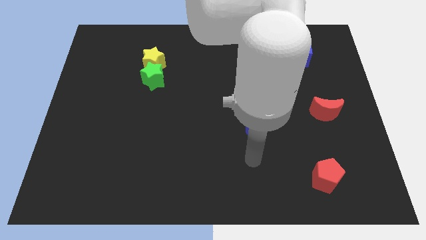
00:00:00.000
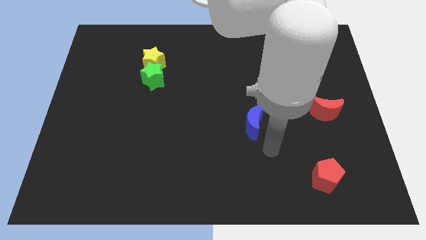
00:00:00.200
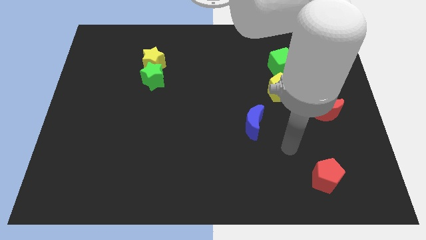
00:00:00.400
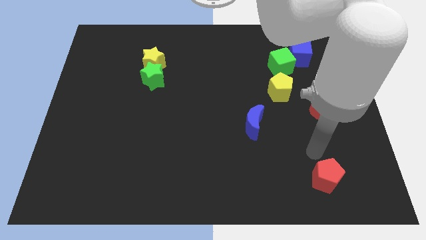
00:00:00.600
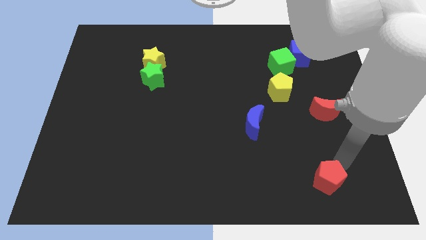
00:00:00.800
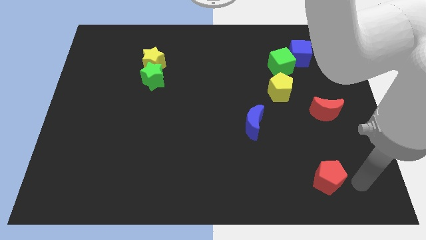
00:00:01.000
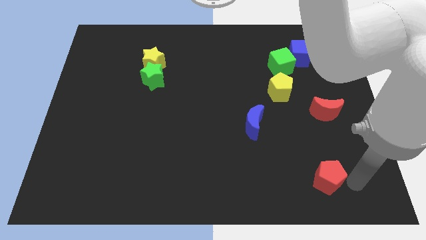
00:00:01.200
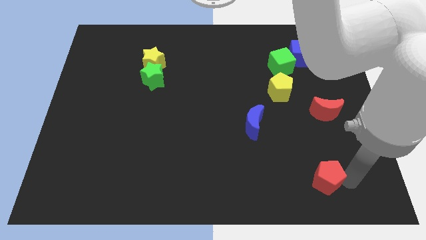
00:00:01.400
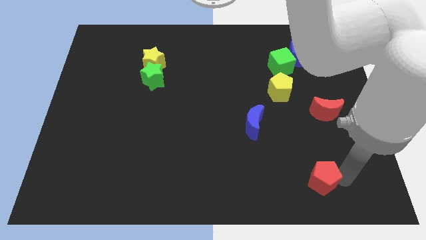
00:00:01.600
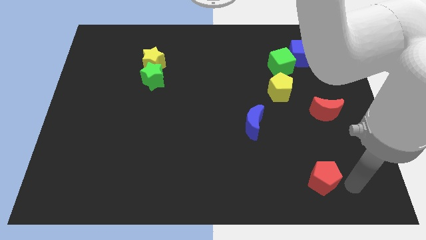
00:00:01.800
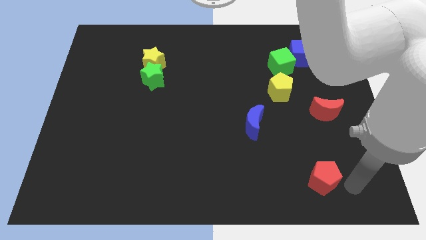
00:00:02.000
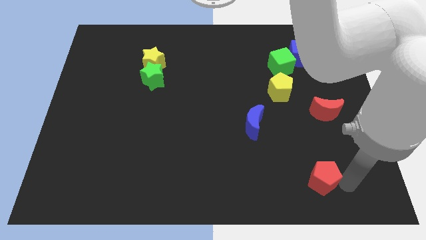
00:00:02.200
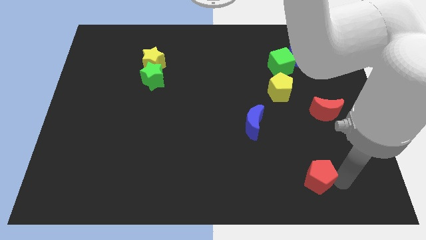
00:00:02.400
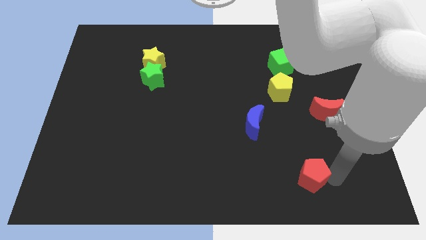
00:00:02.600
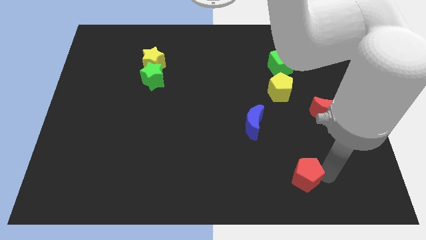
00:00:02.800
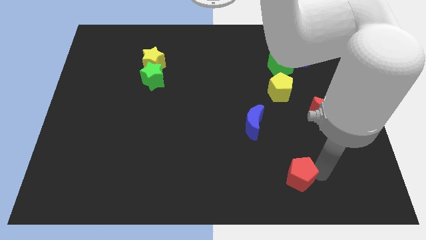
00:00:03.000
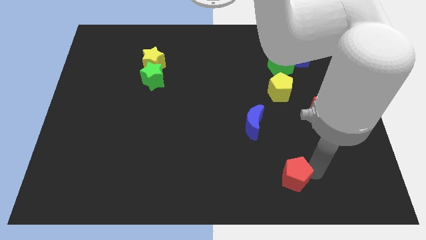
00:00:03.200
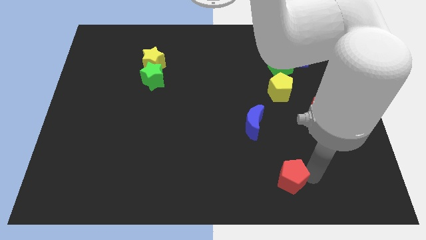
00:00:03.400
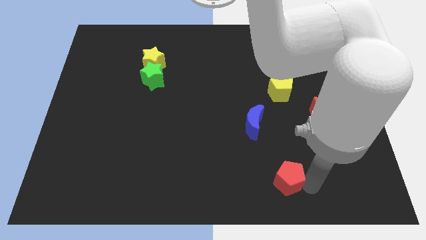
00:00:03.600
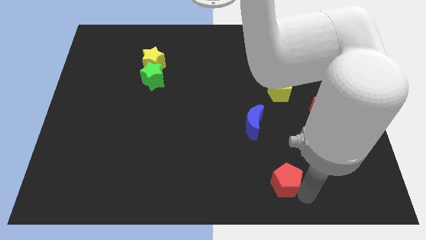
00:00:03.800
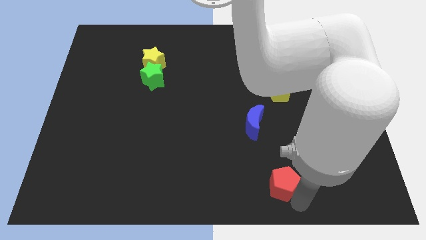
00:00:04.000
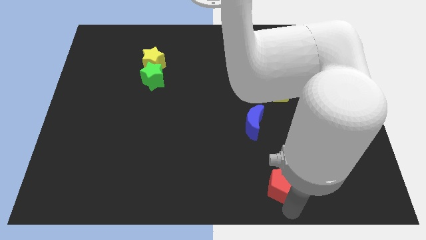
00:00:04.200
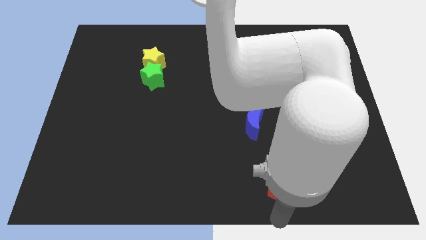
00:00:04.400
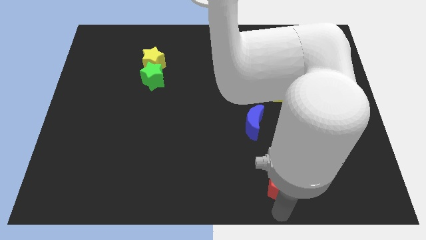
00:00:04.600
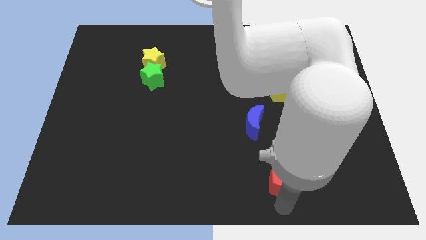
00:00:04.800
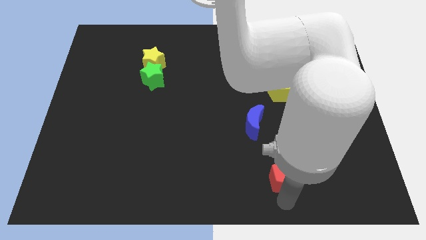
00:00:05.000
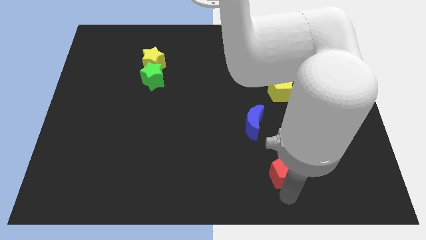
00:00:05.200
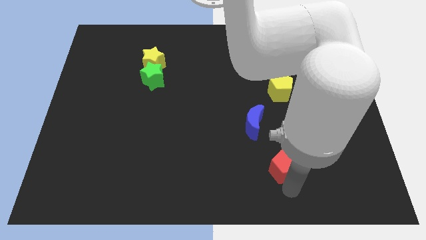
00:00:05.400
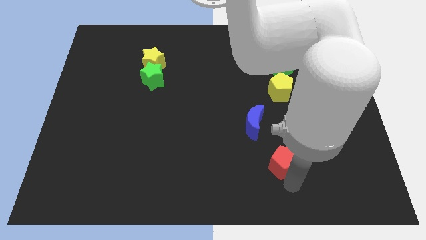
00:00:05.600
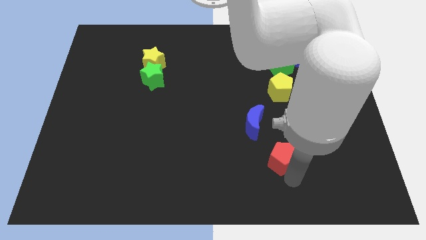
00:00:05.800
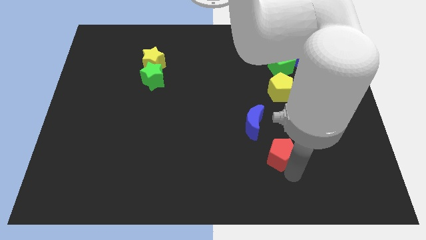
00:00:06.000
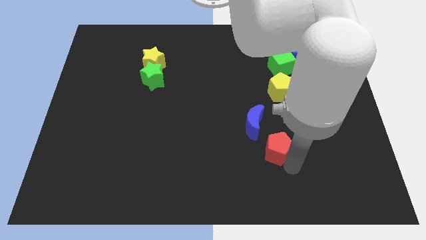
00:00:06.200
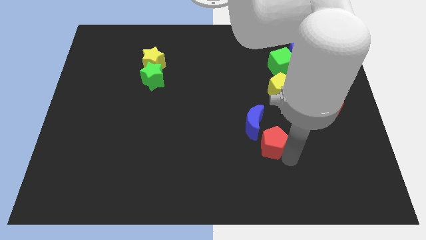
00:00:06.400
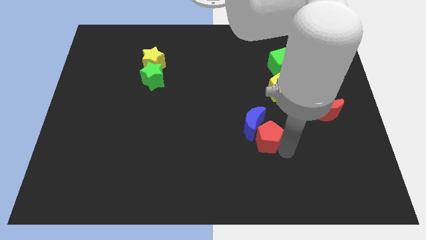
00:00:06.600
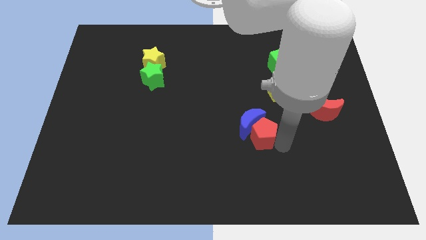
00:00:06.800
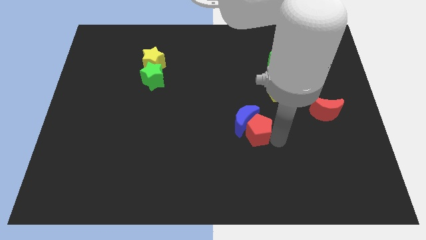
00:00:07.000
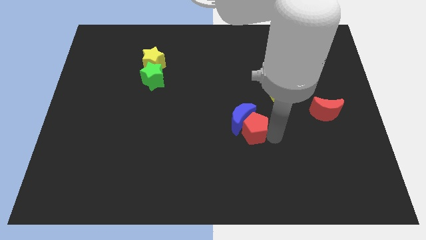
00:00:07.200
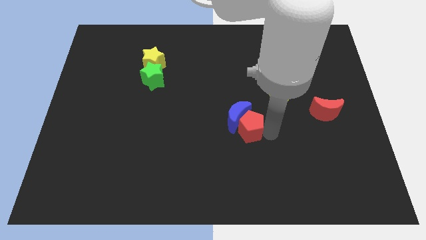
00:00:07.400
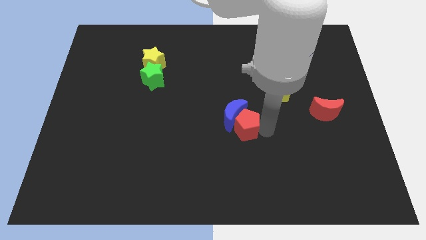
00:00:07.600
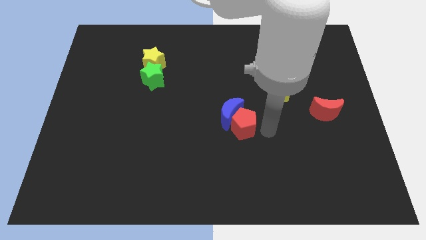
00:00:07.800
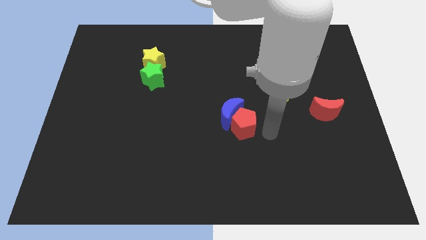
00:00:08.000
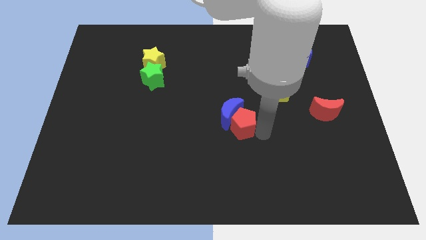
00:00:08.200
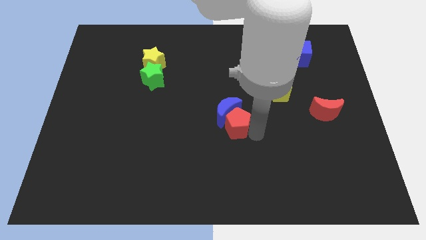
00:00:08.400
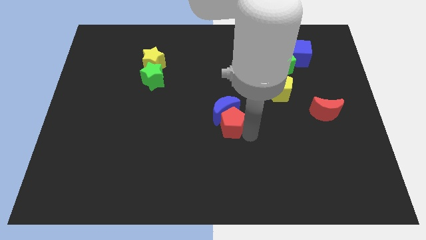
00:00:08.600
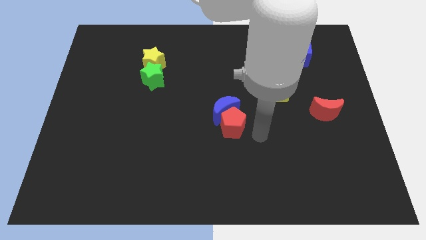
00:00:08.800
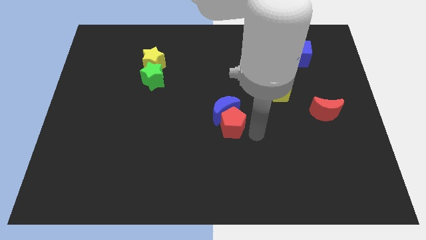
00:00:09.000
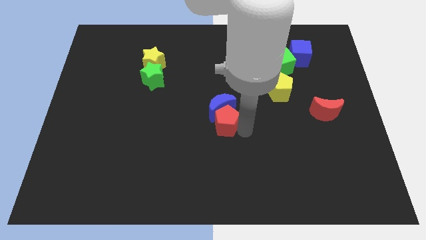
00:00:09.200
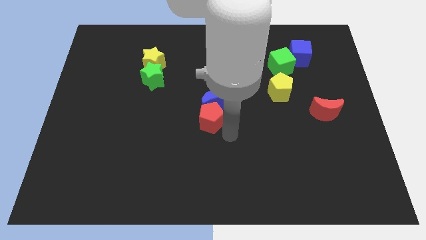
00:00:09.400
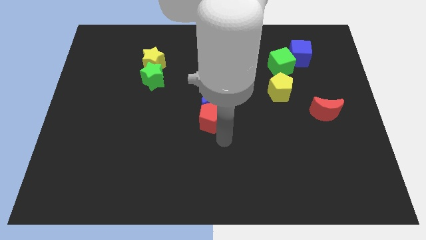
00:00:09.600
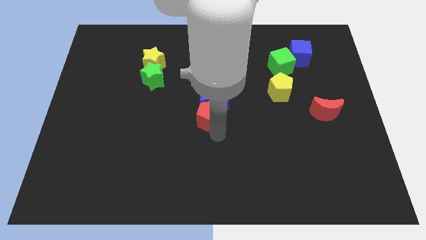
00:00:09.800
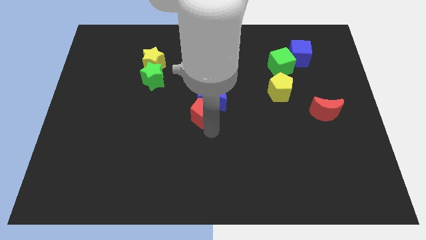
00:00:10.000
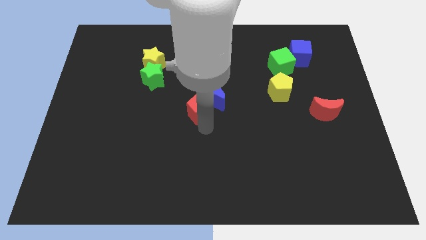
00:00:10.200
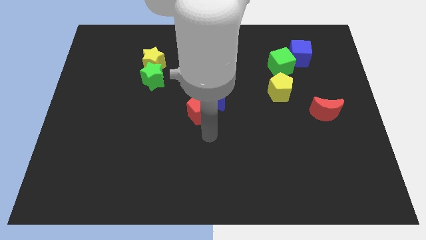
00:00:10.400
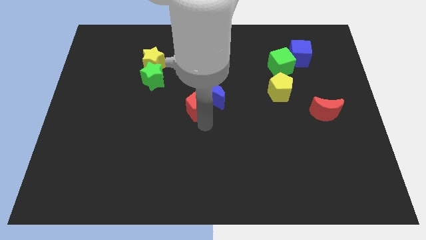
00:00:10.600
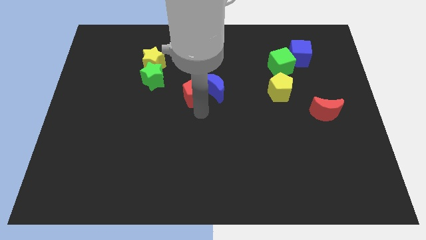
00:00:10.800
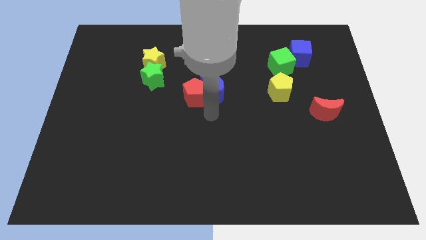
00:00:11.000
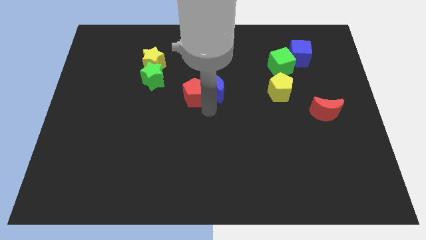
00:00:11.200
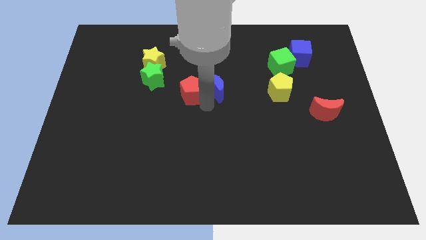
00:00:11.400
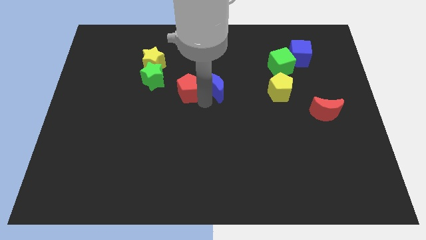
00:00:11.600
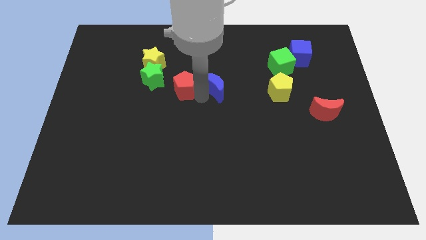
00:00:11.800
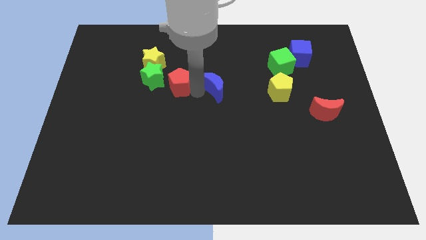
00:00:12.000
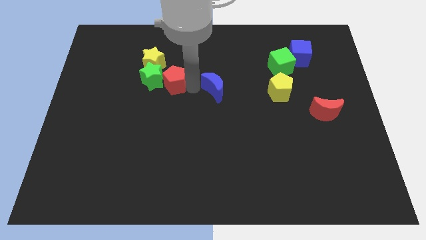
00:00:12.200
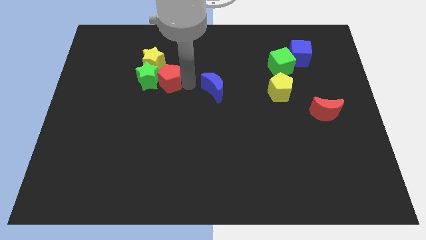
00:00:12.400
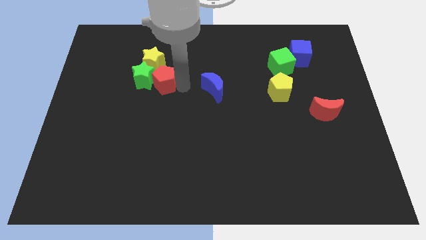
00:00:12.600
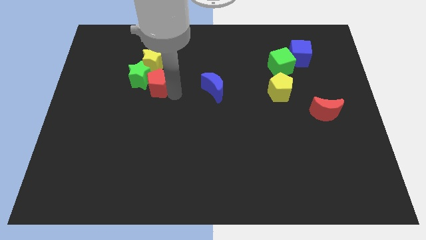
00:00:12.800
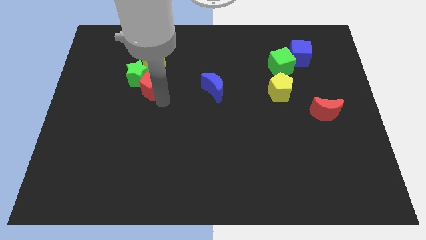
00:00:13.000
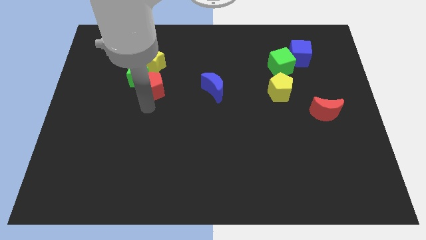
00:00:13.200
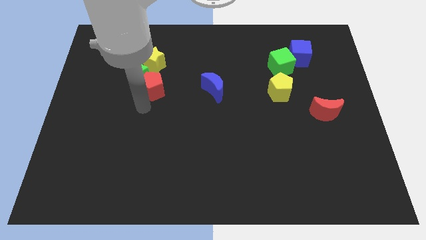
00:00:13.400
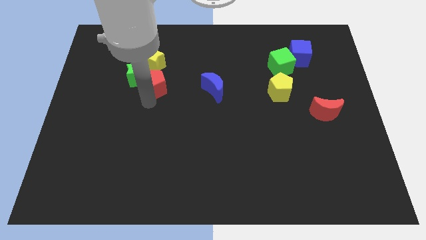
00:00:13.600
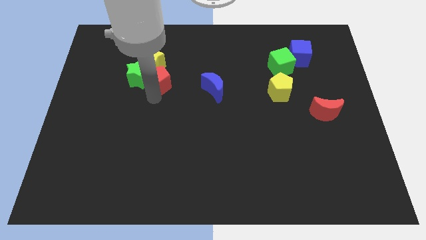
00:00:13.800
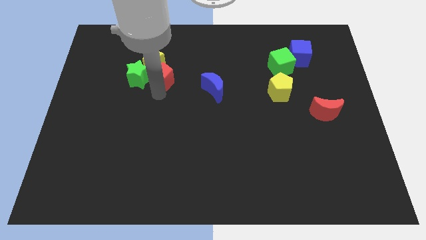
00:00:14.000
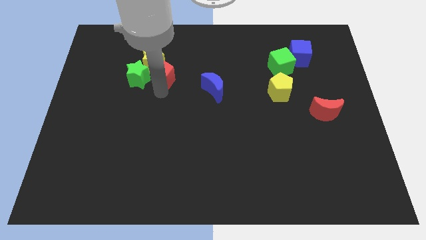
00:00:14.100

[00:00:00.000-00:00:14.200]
put the red pentagon to the yellow star

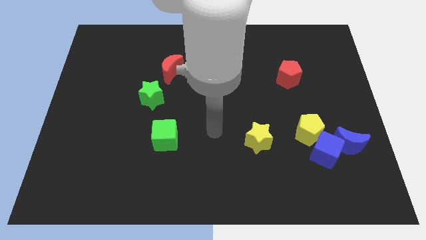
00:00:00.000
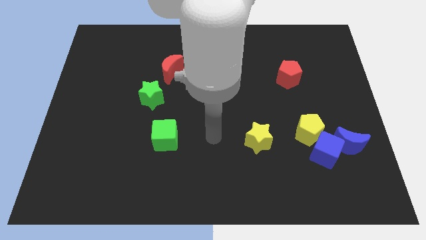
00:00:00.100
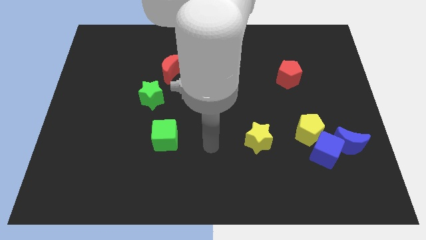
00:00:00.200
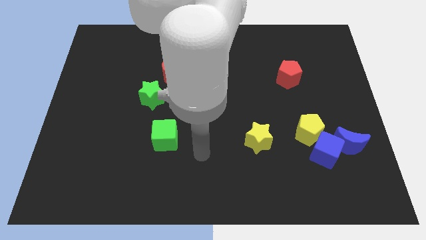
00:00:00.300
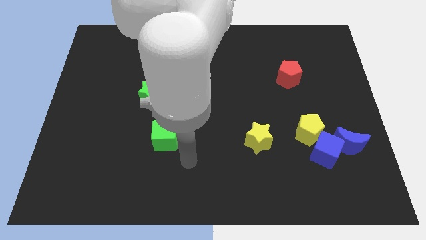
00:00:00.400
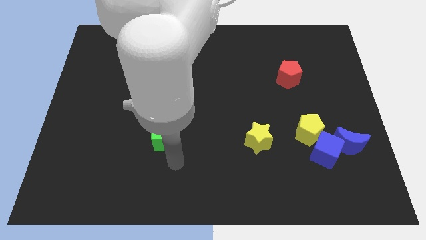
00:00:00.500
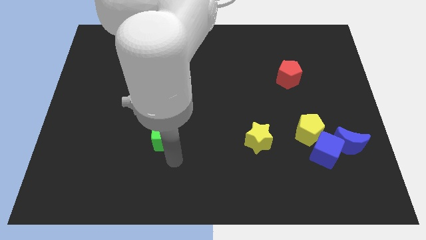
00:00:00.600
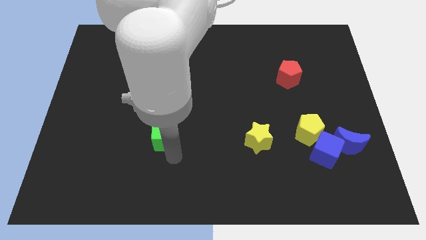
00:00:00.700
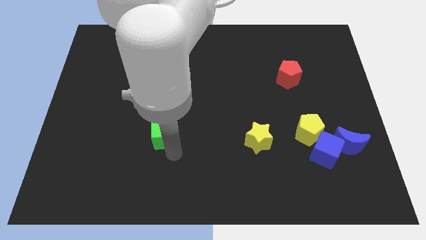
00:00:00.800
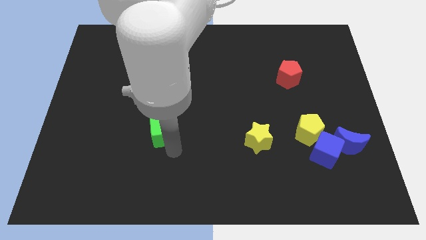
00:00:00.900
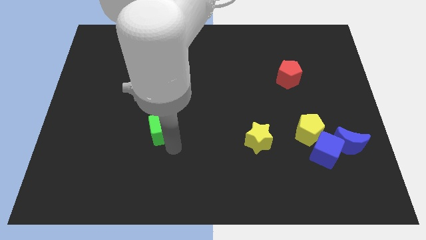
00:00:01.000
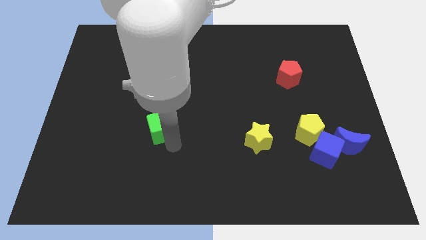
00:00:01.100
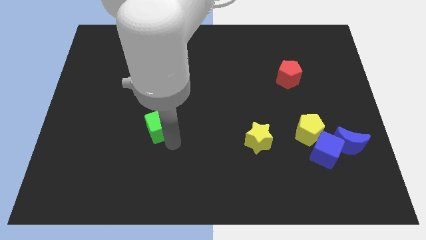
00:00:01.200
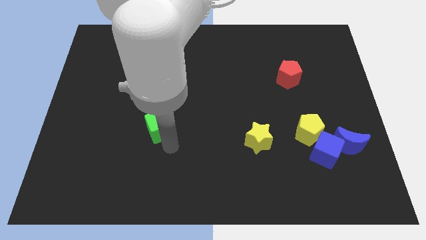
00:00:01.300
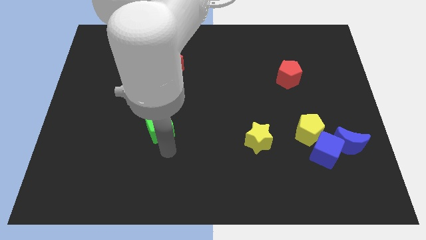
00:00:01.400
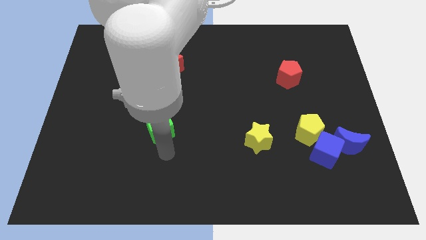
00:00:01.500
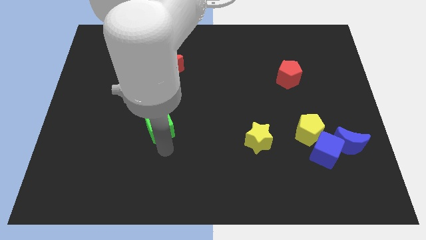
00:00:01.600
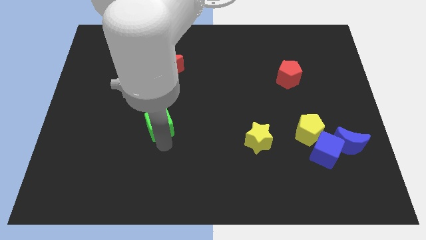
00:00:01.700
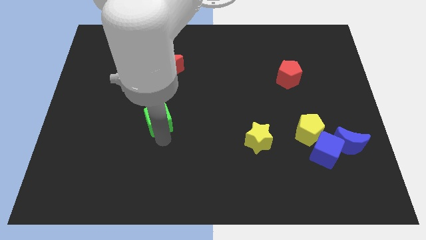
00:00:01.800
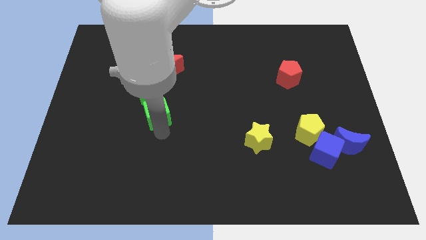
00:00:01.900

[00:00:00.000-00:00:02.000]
slide the green cube next to the green star
